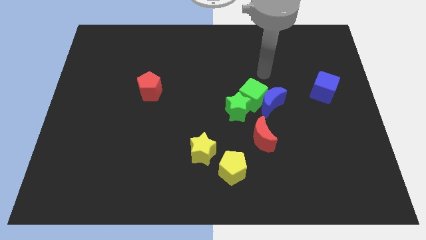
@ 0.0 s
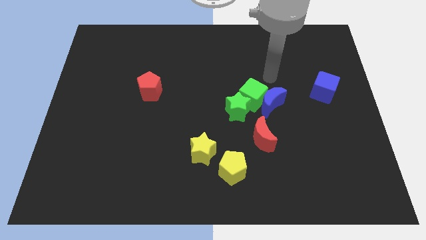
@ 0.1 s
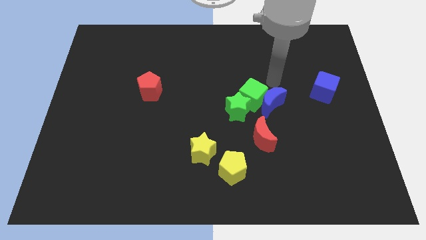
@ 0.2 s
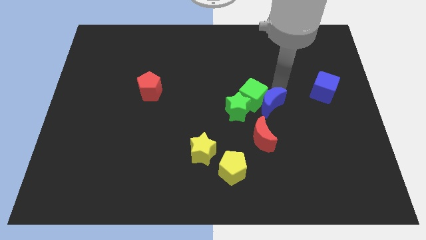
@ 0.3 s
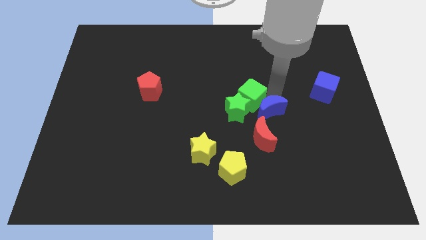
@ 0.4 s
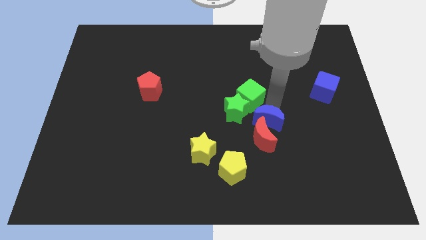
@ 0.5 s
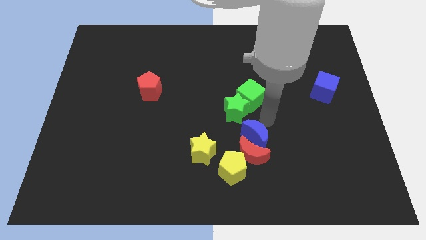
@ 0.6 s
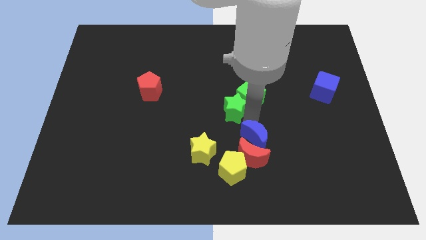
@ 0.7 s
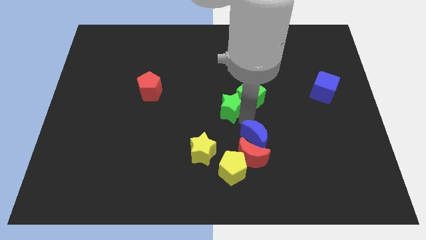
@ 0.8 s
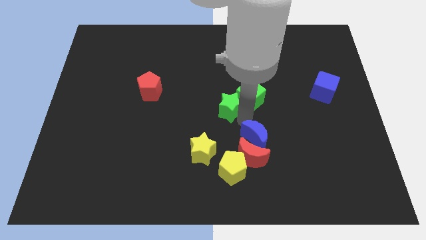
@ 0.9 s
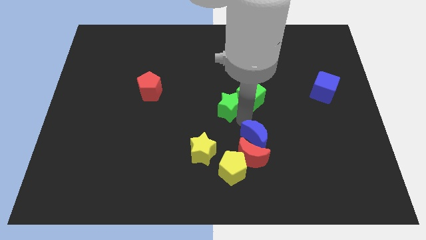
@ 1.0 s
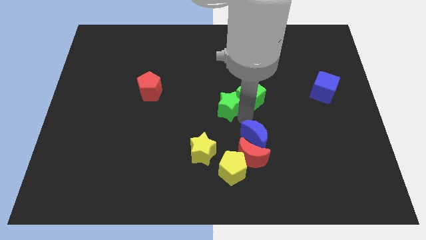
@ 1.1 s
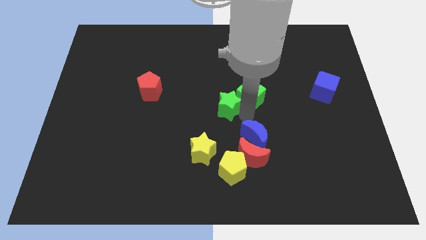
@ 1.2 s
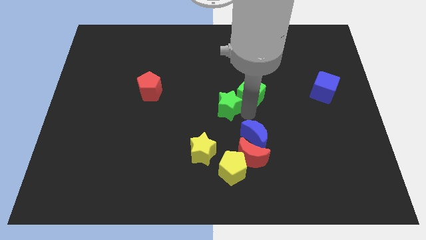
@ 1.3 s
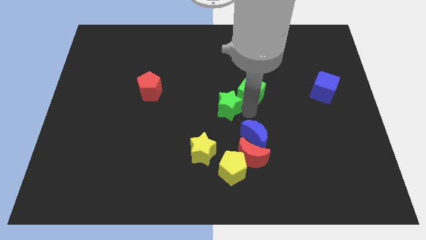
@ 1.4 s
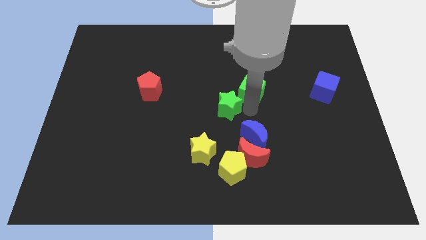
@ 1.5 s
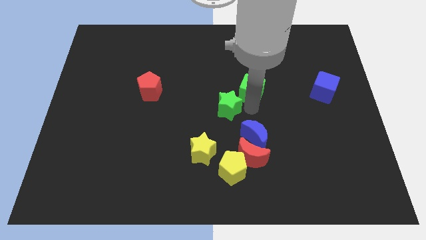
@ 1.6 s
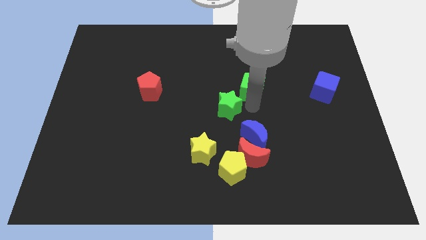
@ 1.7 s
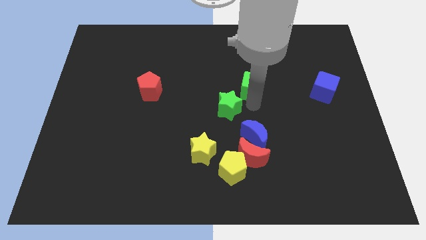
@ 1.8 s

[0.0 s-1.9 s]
move the green cube away from the blue moon and green star

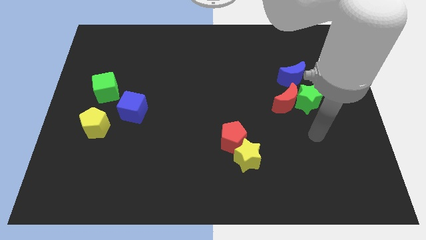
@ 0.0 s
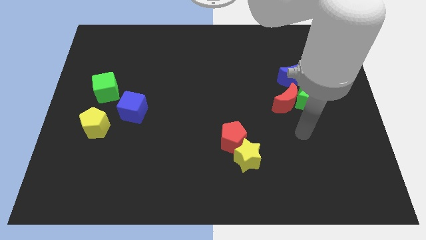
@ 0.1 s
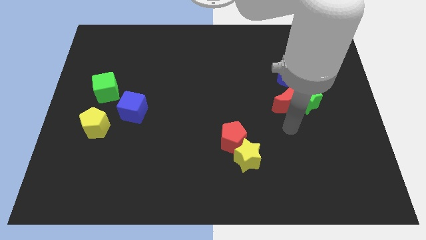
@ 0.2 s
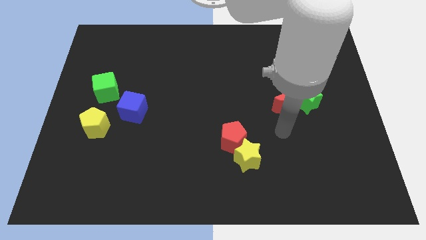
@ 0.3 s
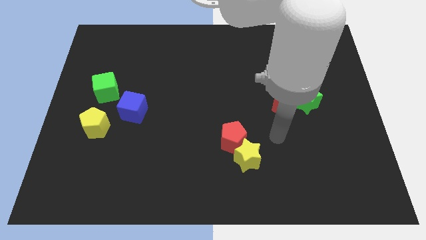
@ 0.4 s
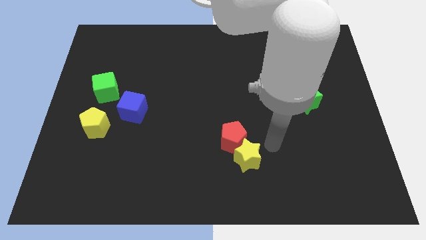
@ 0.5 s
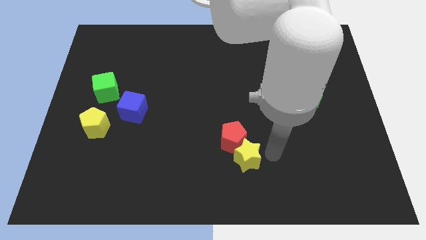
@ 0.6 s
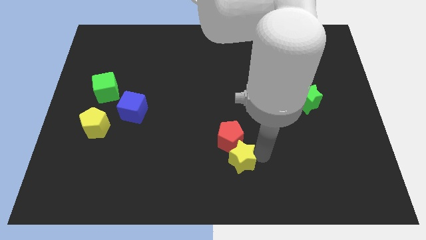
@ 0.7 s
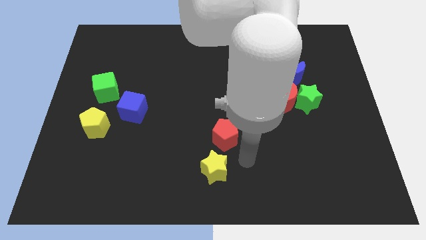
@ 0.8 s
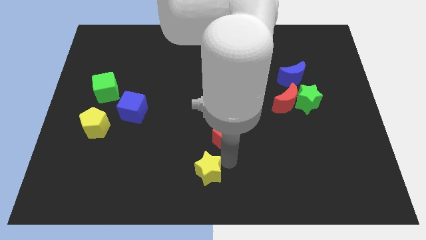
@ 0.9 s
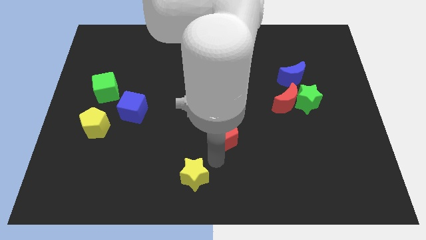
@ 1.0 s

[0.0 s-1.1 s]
move the red pentagon away from the yellow star

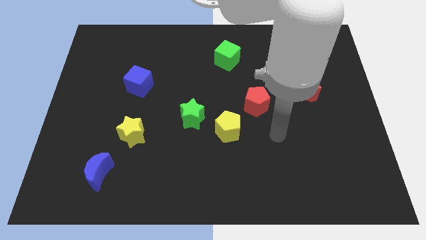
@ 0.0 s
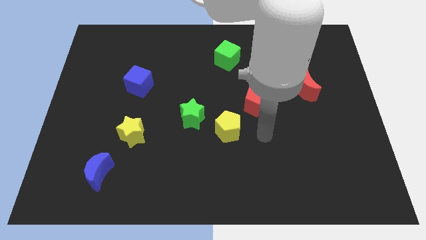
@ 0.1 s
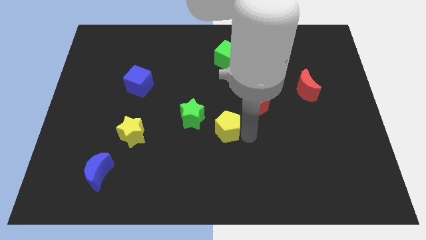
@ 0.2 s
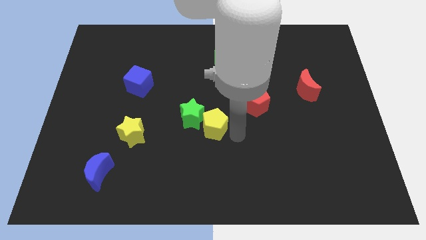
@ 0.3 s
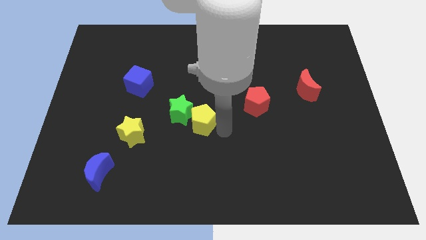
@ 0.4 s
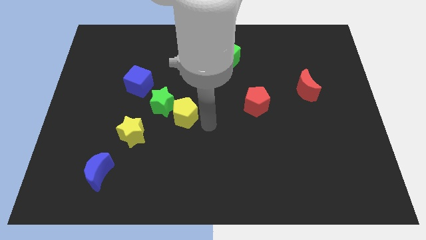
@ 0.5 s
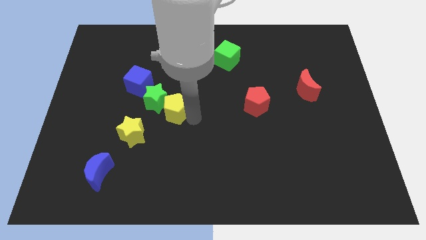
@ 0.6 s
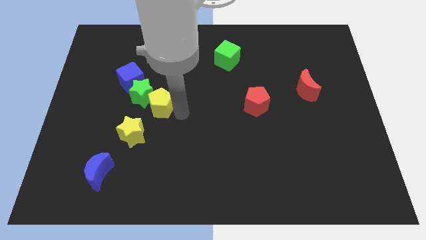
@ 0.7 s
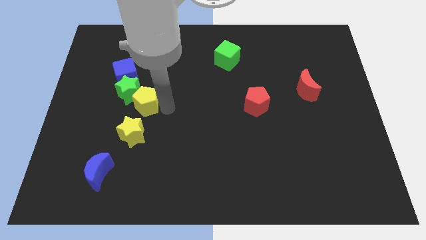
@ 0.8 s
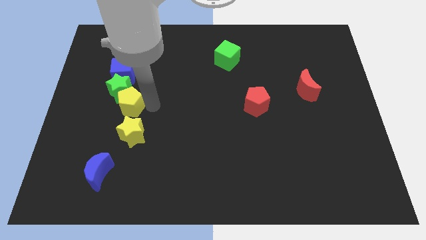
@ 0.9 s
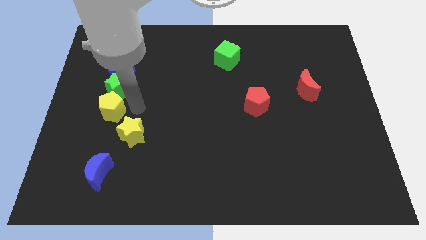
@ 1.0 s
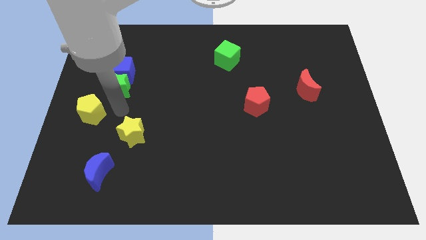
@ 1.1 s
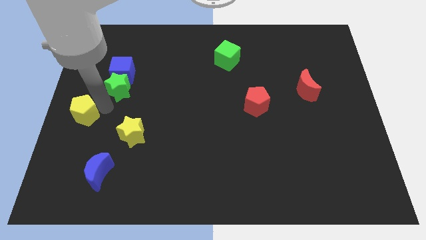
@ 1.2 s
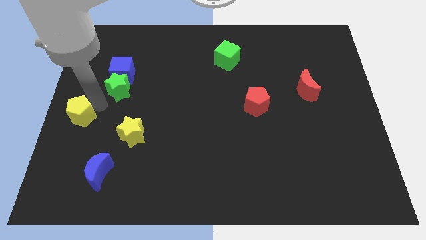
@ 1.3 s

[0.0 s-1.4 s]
separate the green star from the yellow pentagon

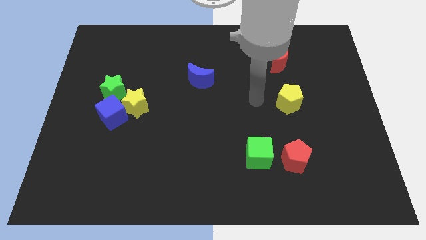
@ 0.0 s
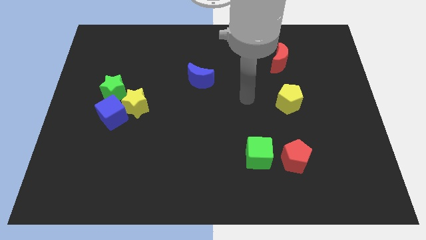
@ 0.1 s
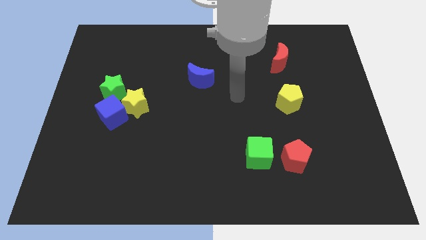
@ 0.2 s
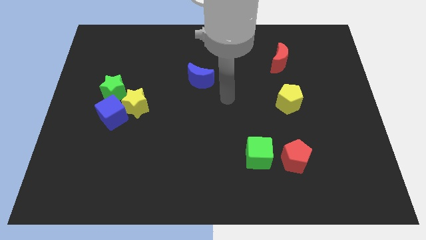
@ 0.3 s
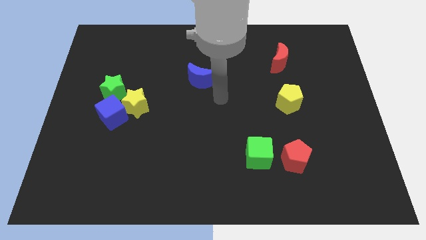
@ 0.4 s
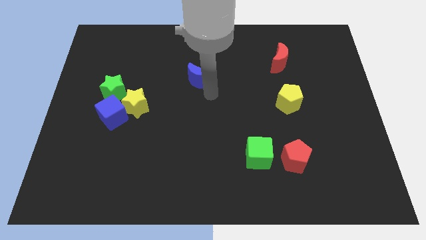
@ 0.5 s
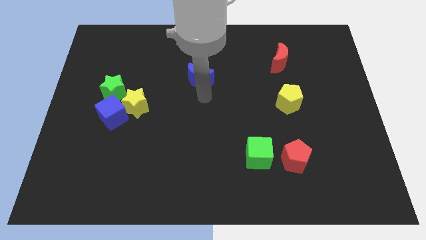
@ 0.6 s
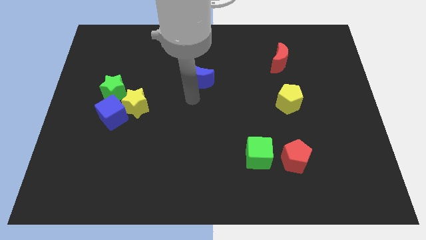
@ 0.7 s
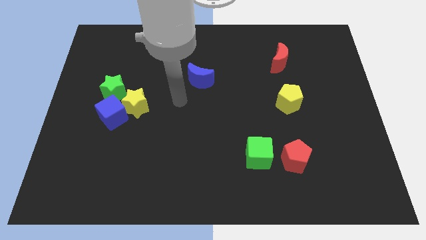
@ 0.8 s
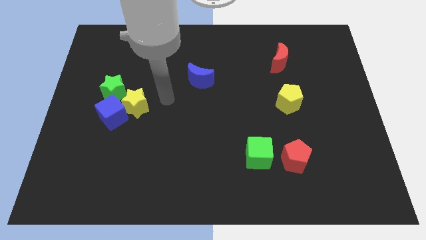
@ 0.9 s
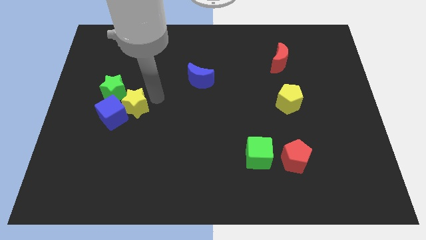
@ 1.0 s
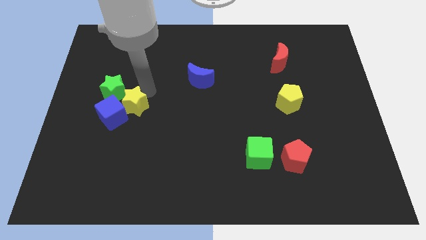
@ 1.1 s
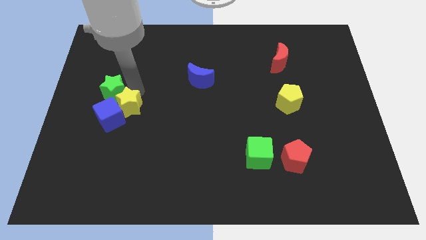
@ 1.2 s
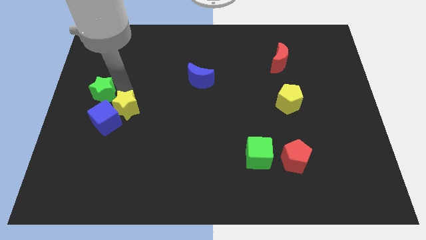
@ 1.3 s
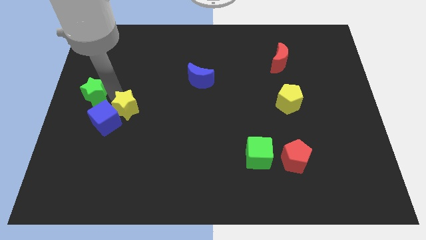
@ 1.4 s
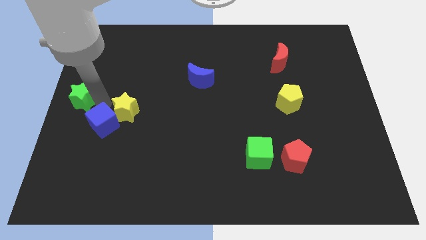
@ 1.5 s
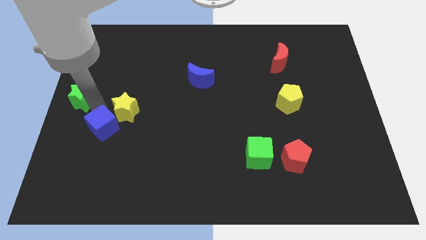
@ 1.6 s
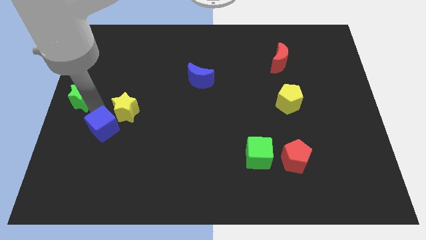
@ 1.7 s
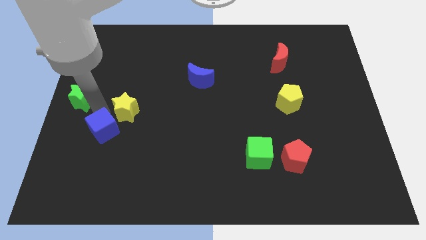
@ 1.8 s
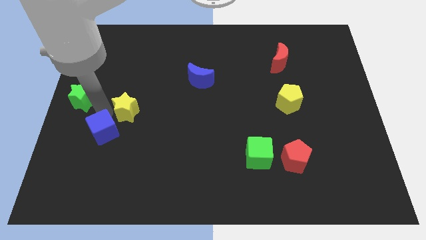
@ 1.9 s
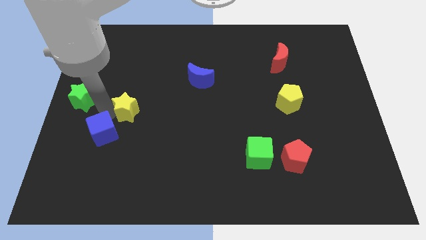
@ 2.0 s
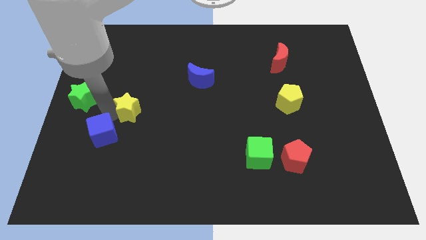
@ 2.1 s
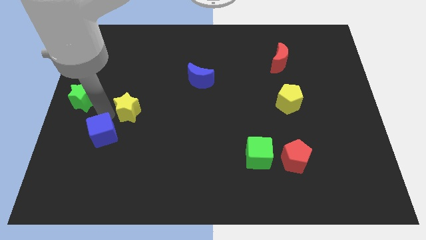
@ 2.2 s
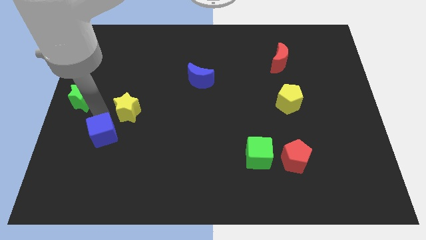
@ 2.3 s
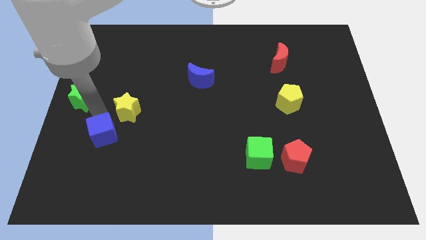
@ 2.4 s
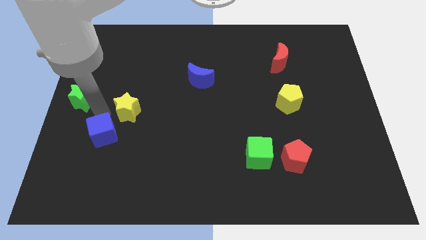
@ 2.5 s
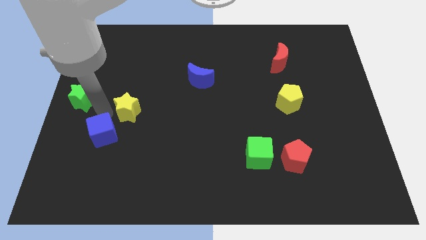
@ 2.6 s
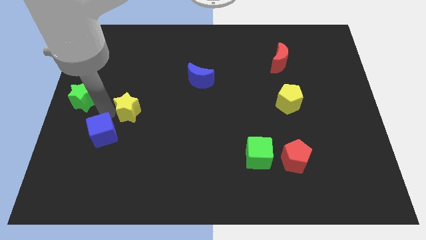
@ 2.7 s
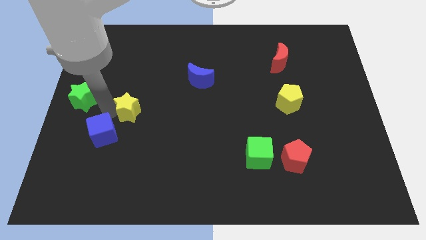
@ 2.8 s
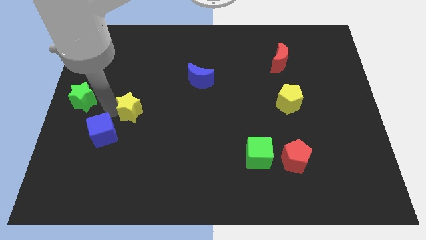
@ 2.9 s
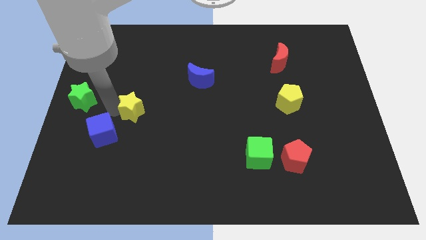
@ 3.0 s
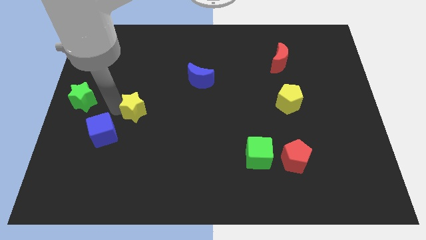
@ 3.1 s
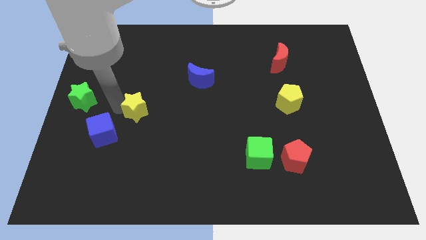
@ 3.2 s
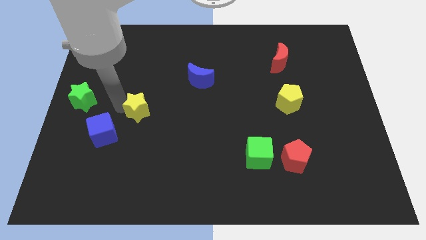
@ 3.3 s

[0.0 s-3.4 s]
separate the yellow star from the blue cube and green star

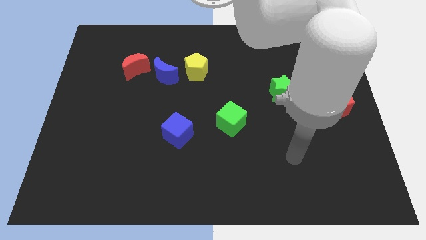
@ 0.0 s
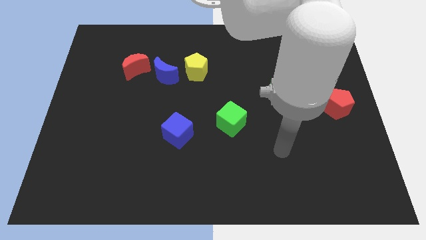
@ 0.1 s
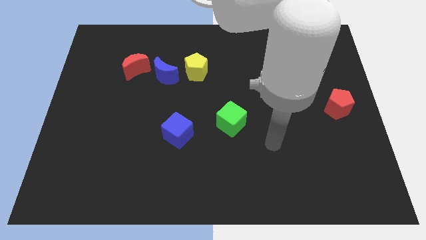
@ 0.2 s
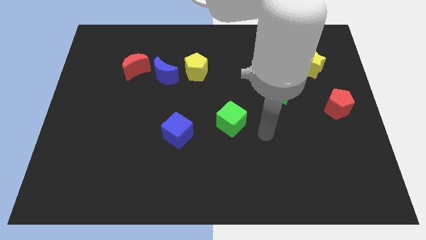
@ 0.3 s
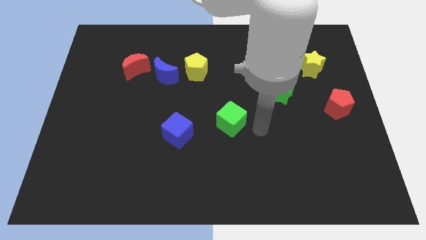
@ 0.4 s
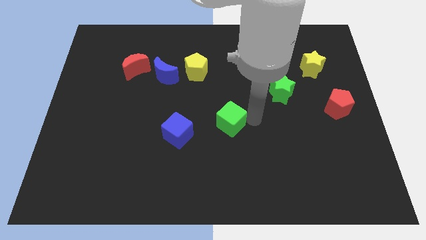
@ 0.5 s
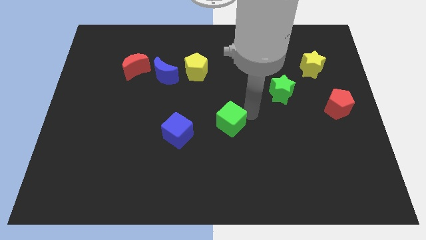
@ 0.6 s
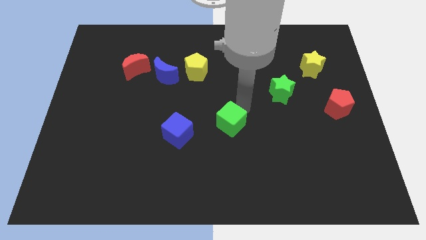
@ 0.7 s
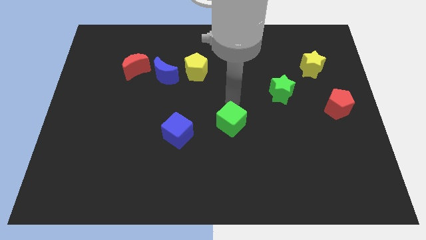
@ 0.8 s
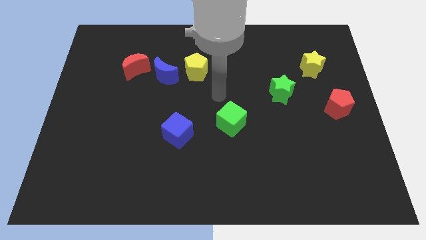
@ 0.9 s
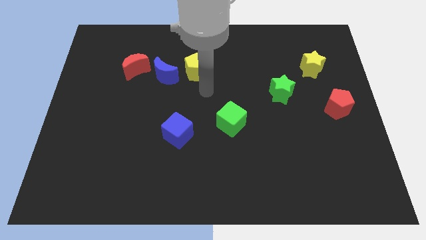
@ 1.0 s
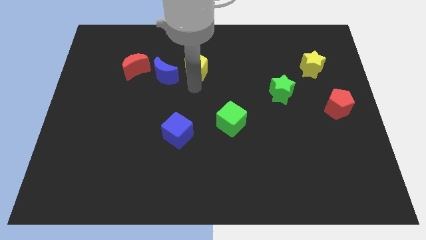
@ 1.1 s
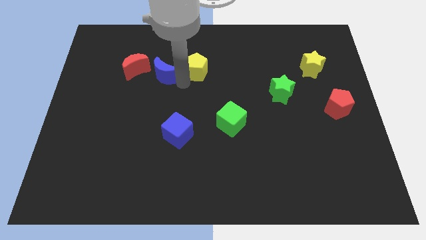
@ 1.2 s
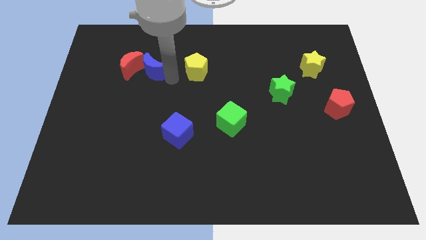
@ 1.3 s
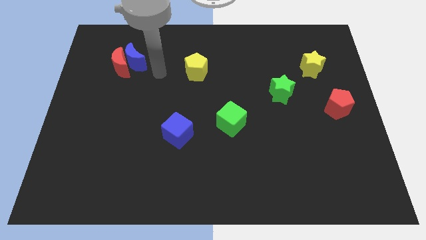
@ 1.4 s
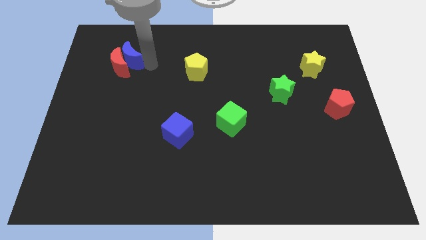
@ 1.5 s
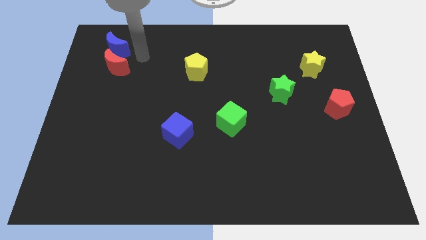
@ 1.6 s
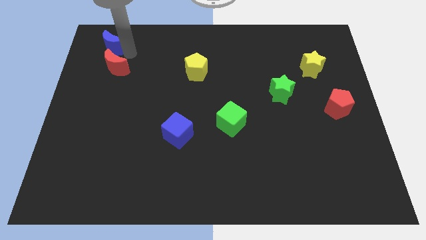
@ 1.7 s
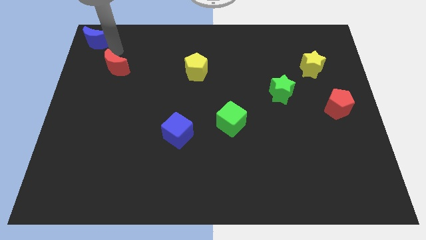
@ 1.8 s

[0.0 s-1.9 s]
pull the red moon apart from the blue moon
